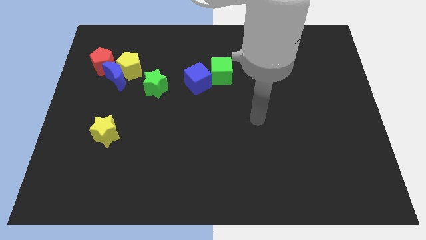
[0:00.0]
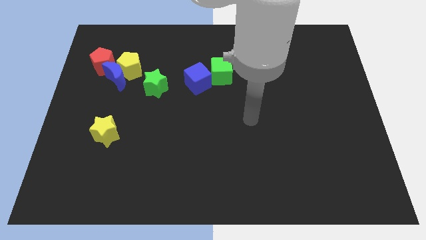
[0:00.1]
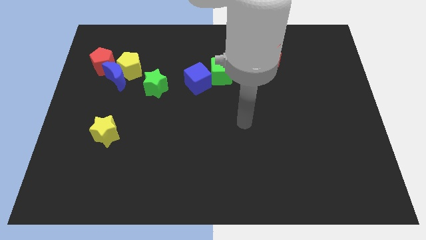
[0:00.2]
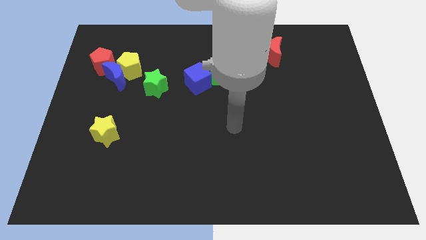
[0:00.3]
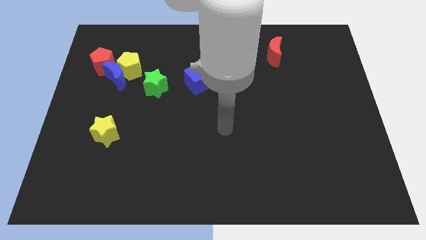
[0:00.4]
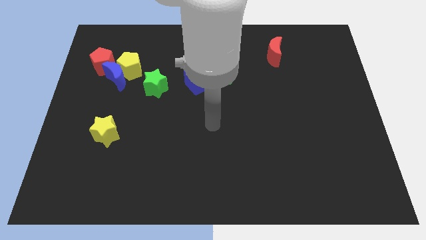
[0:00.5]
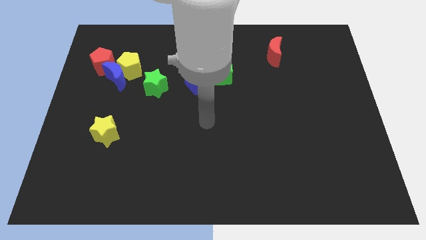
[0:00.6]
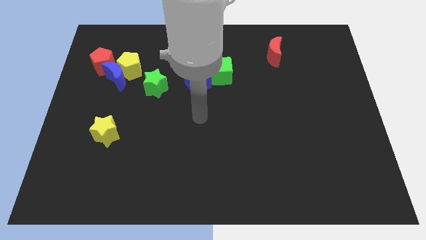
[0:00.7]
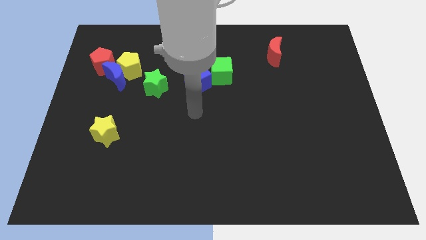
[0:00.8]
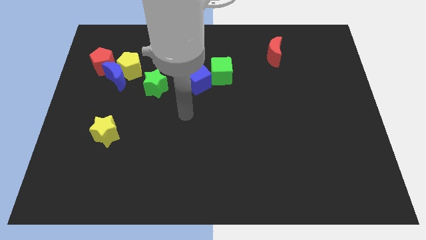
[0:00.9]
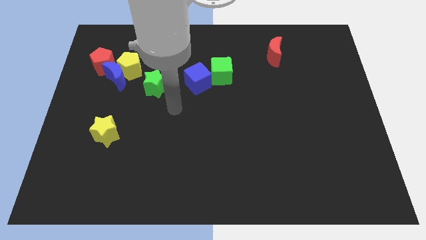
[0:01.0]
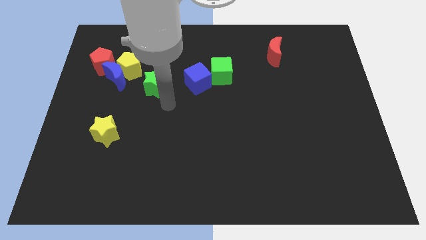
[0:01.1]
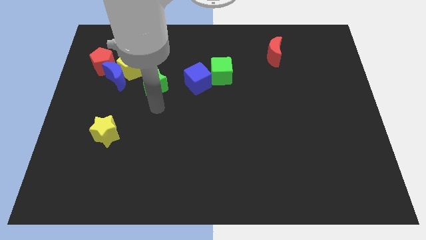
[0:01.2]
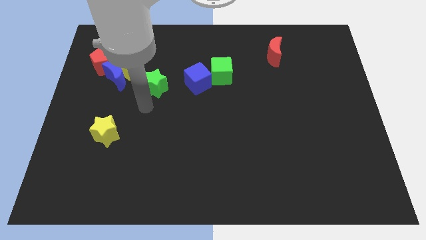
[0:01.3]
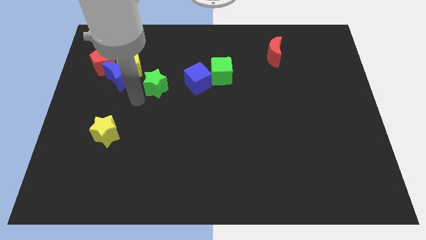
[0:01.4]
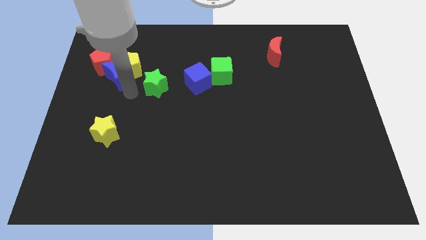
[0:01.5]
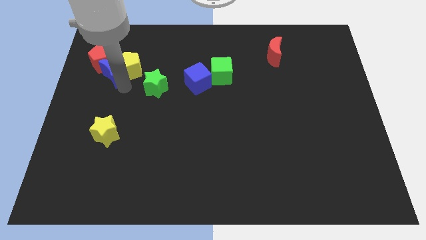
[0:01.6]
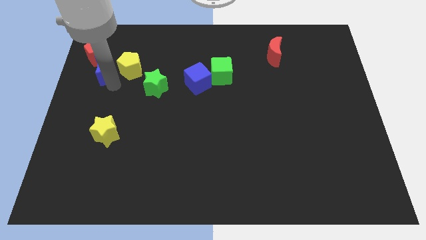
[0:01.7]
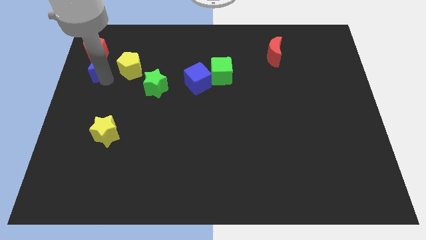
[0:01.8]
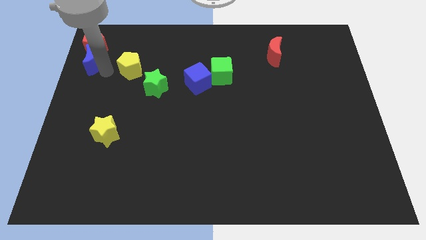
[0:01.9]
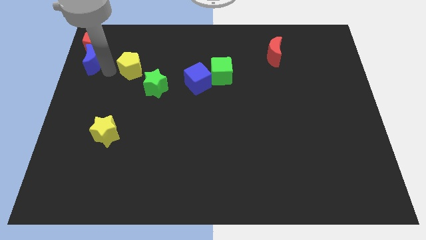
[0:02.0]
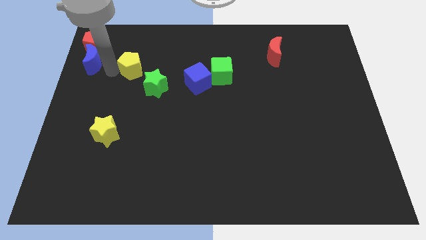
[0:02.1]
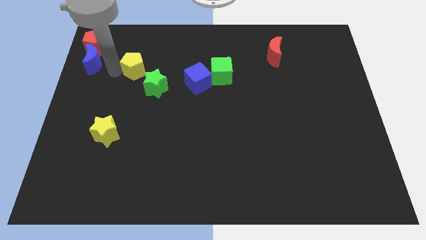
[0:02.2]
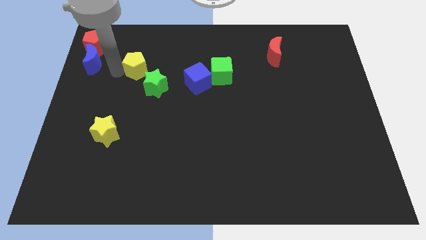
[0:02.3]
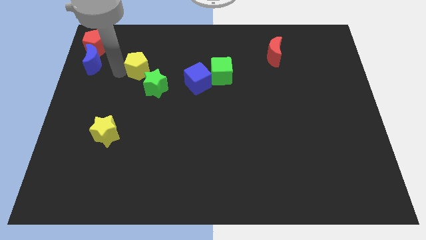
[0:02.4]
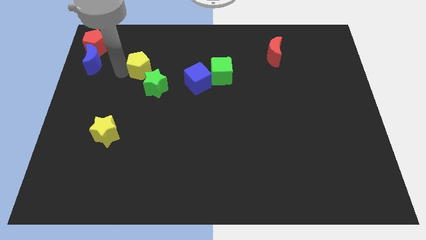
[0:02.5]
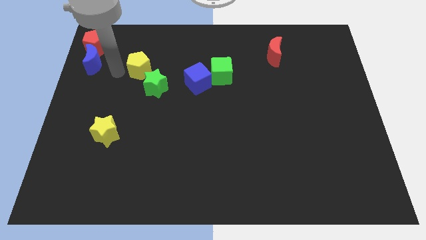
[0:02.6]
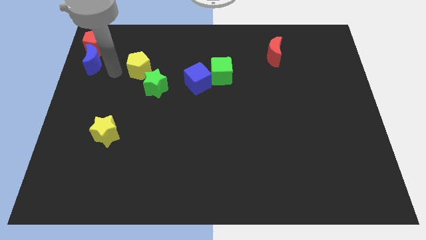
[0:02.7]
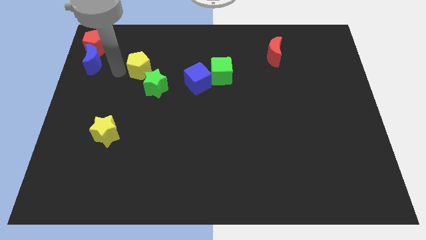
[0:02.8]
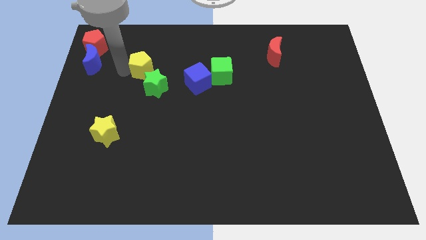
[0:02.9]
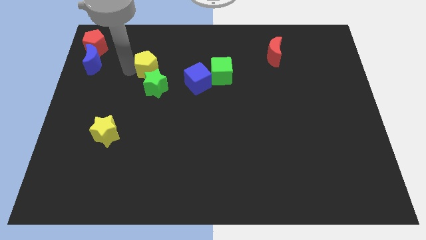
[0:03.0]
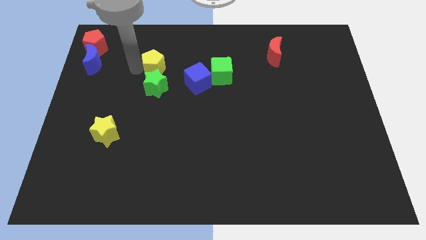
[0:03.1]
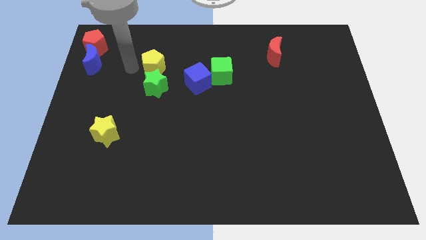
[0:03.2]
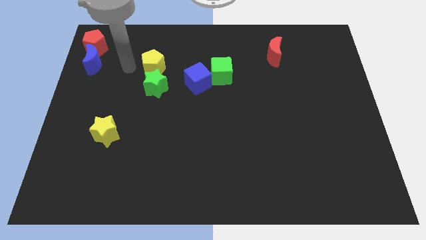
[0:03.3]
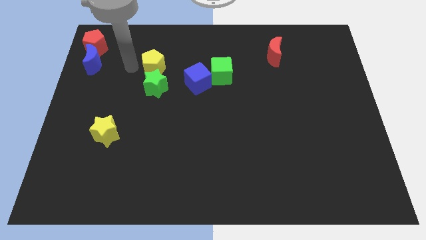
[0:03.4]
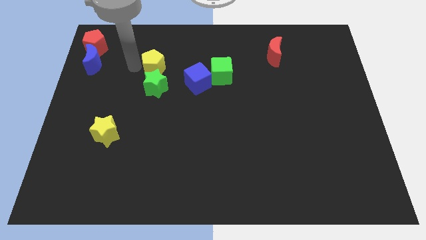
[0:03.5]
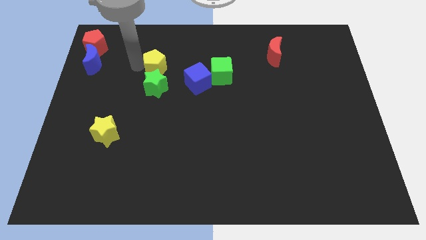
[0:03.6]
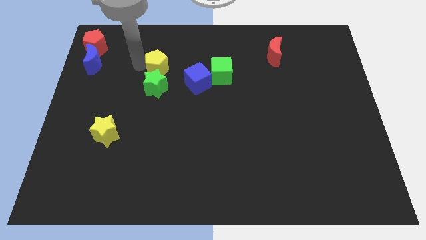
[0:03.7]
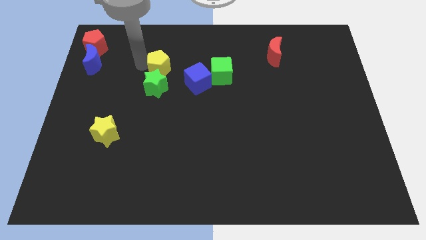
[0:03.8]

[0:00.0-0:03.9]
push the yellow pentagon to the right a bit

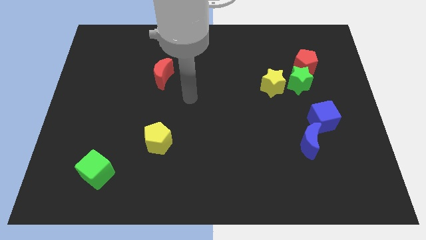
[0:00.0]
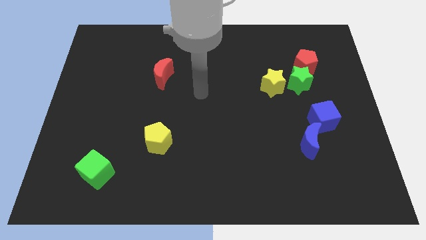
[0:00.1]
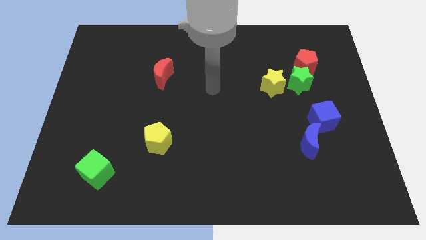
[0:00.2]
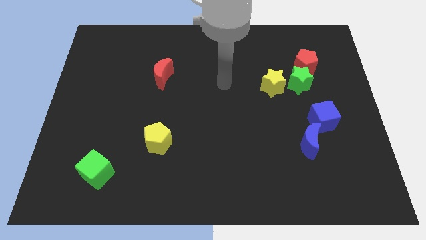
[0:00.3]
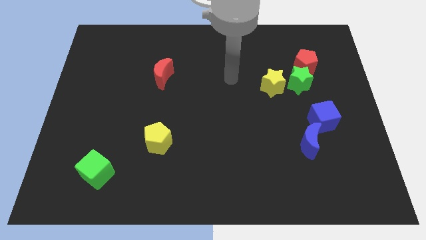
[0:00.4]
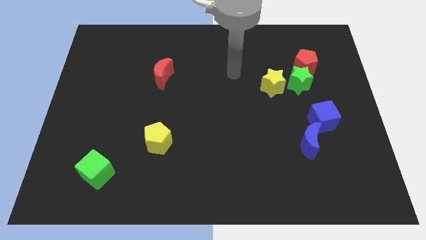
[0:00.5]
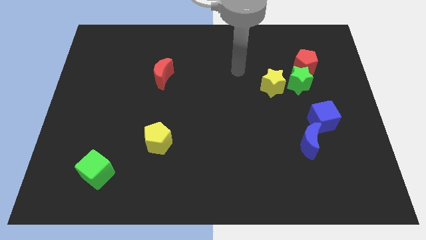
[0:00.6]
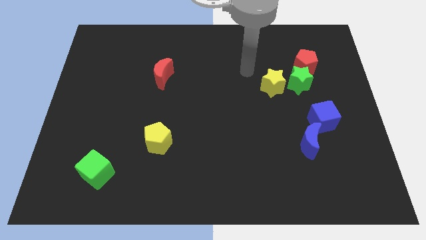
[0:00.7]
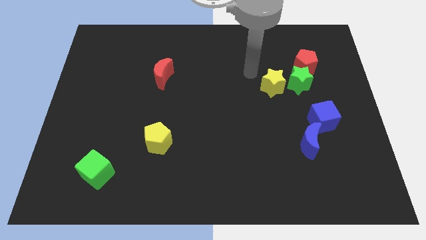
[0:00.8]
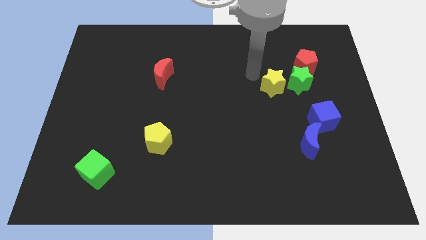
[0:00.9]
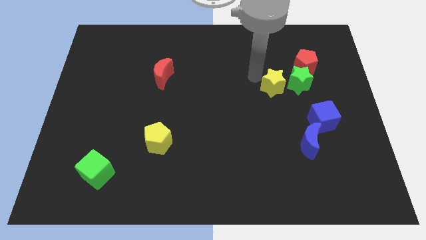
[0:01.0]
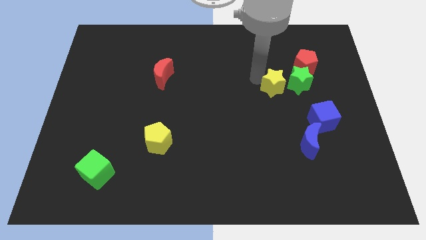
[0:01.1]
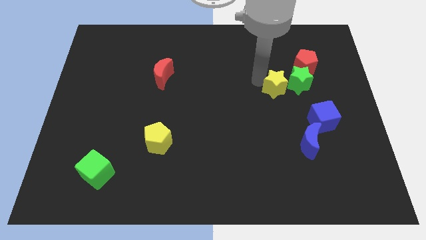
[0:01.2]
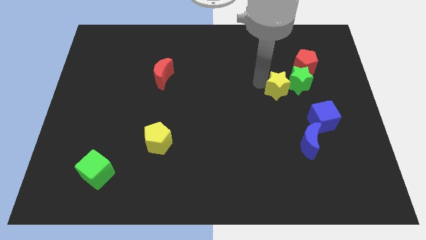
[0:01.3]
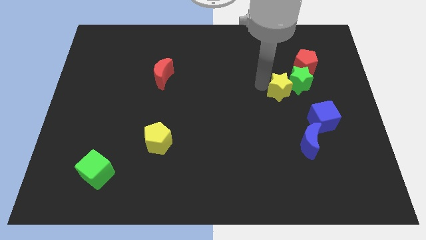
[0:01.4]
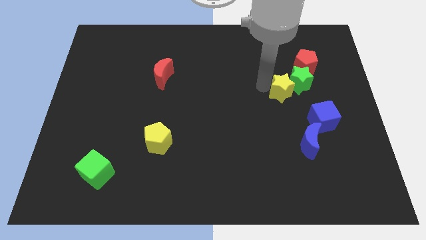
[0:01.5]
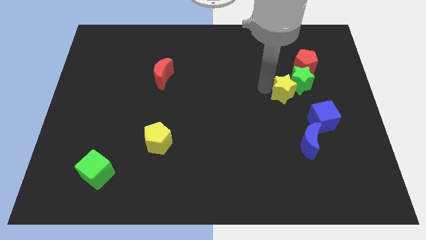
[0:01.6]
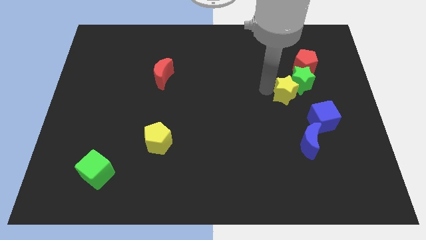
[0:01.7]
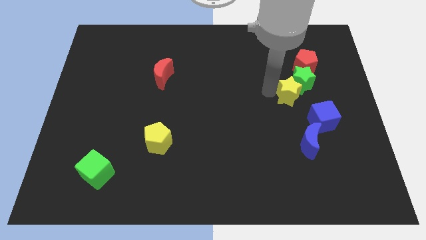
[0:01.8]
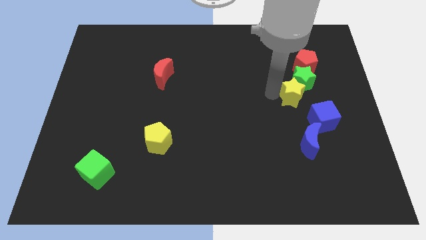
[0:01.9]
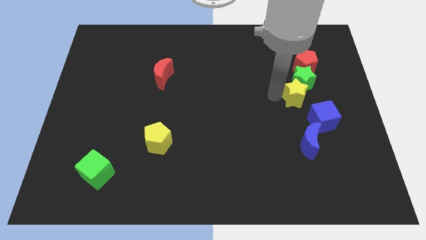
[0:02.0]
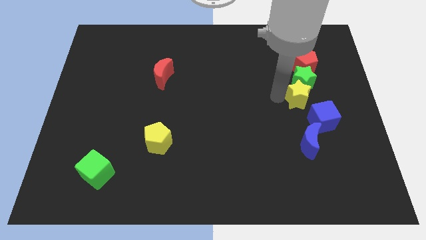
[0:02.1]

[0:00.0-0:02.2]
slide the yellow star somewhat diagonally down and to the right

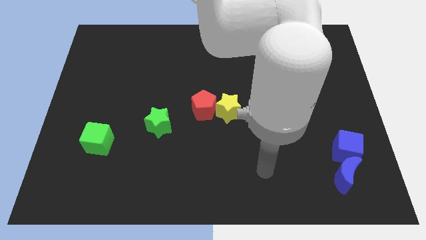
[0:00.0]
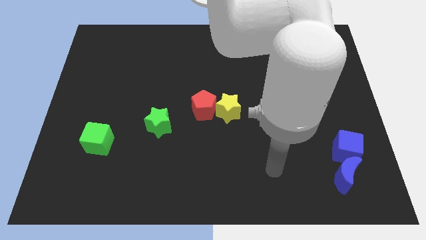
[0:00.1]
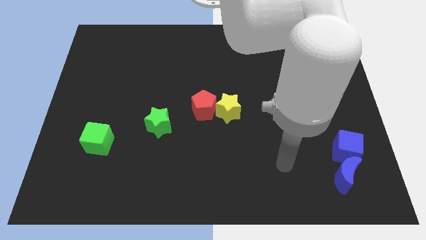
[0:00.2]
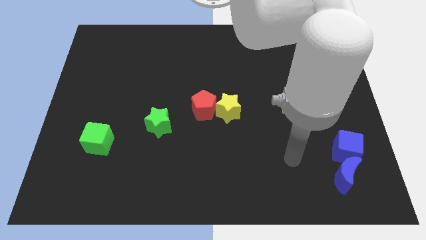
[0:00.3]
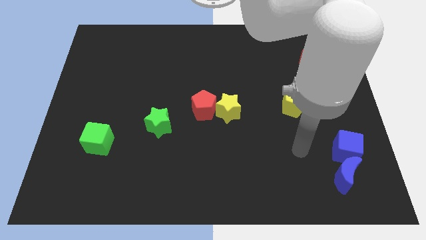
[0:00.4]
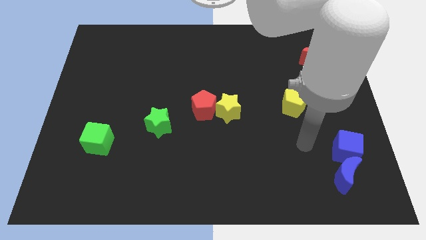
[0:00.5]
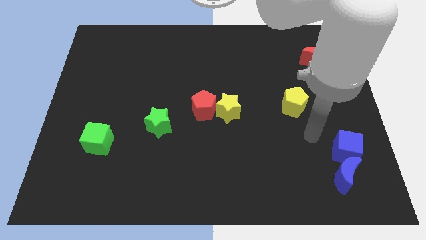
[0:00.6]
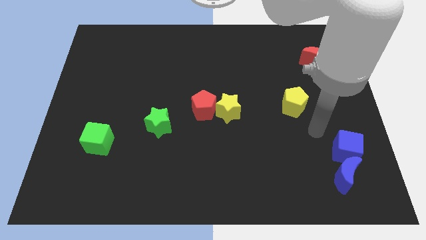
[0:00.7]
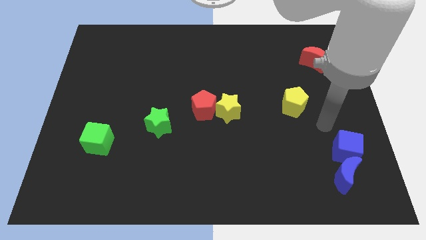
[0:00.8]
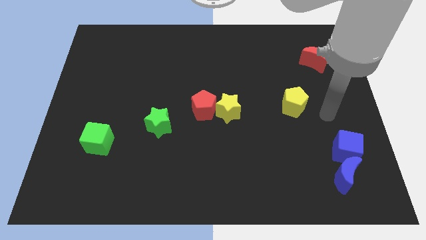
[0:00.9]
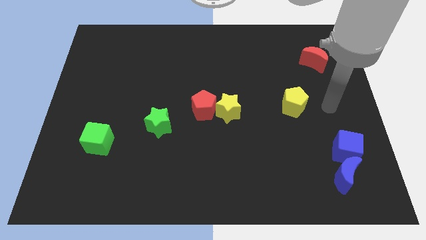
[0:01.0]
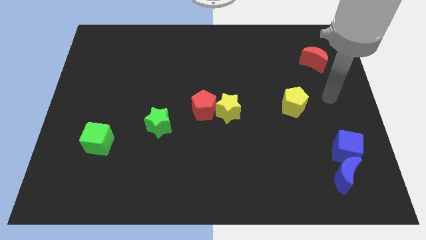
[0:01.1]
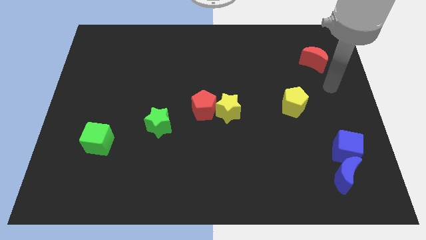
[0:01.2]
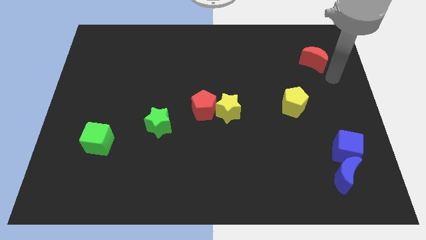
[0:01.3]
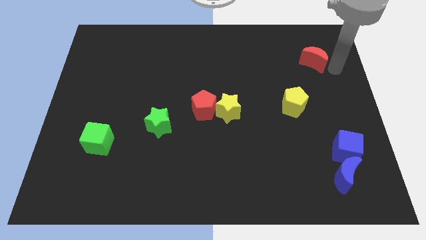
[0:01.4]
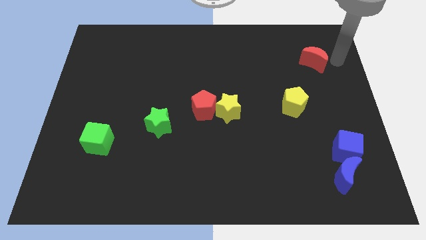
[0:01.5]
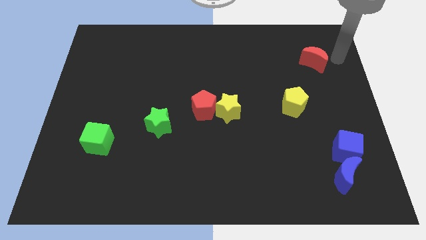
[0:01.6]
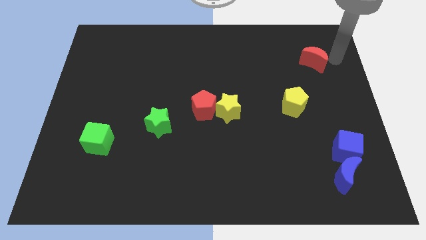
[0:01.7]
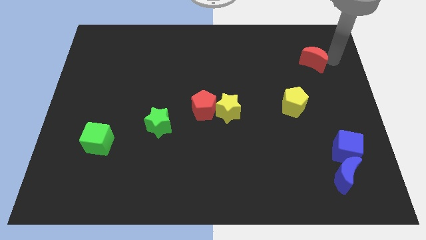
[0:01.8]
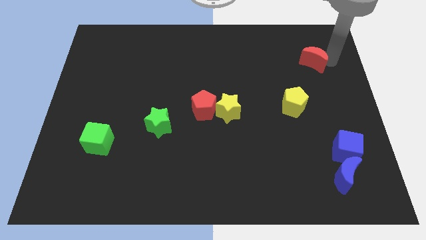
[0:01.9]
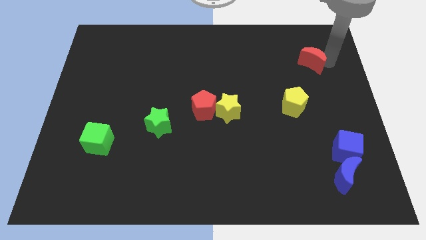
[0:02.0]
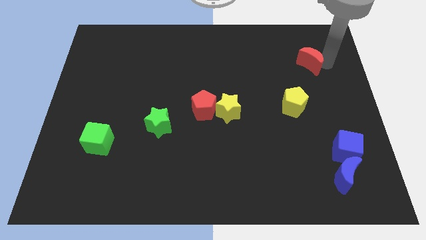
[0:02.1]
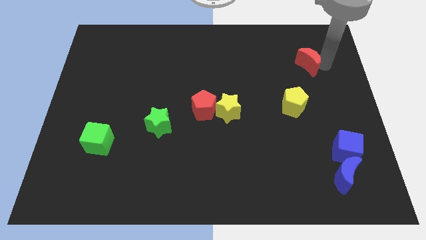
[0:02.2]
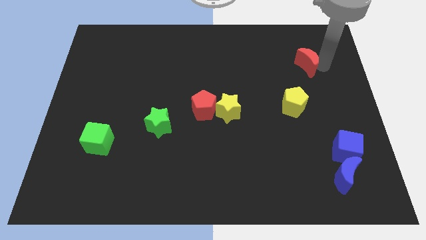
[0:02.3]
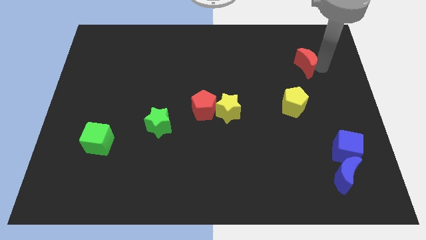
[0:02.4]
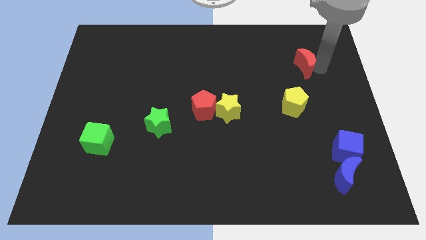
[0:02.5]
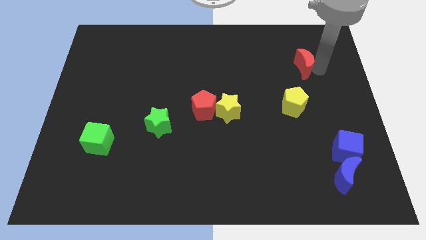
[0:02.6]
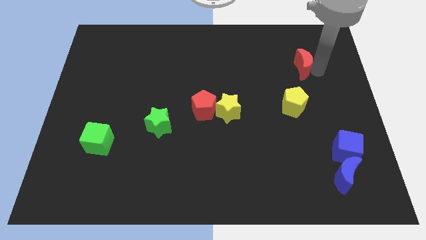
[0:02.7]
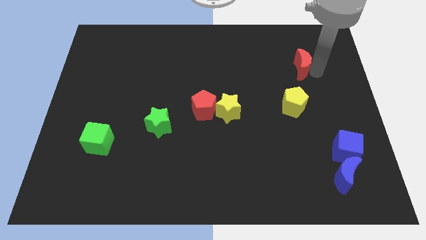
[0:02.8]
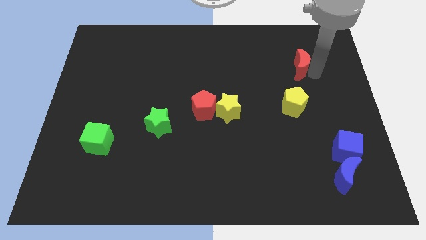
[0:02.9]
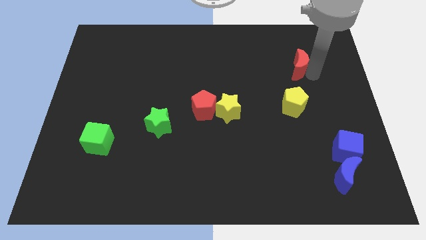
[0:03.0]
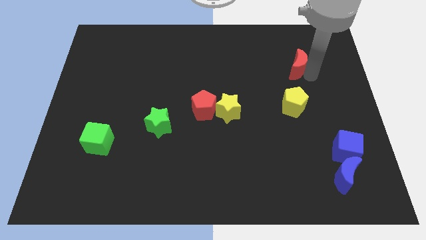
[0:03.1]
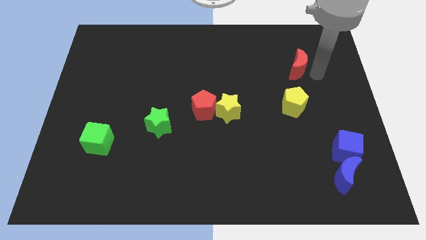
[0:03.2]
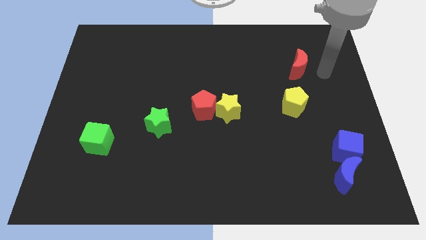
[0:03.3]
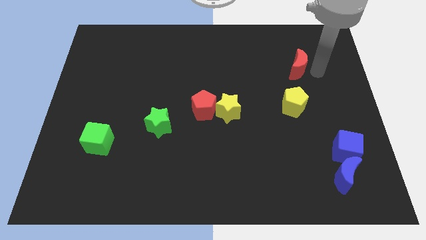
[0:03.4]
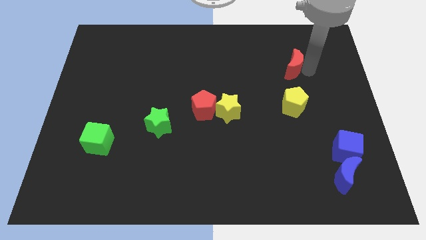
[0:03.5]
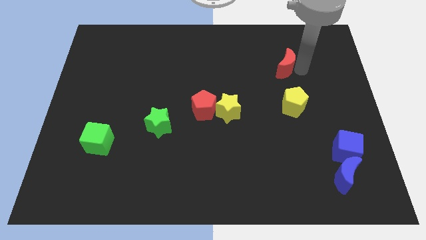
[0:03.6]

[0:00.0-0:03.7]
slide the red moon a little to the left
